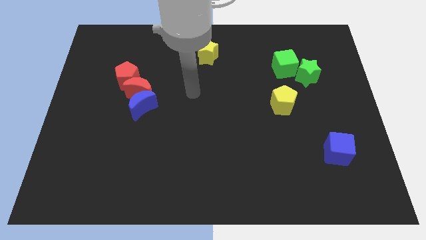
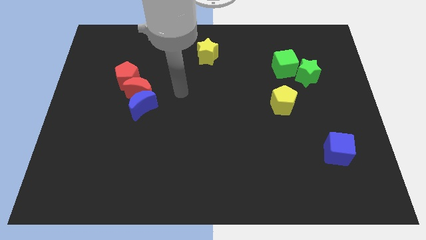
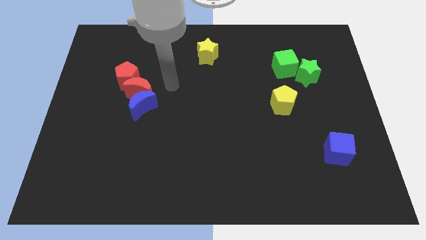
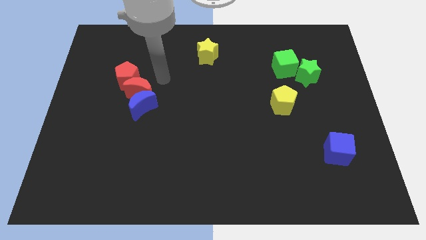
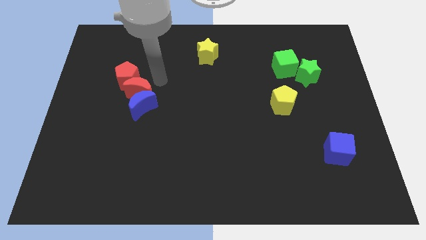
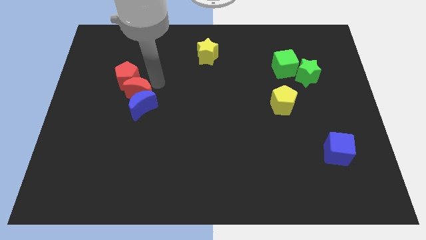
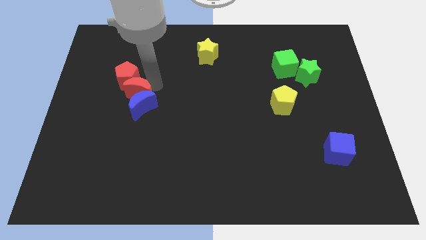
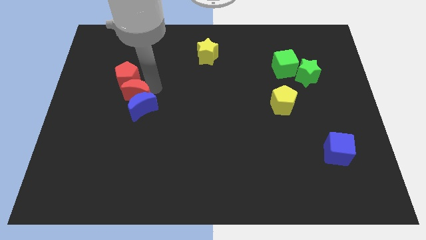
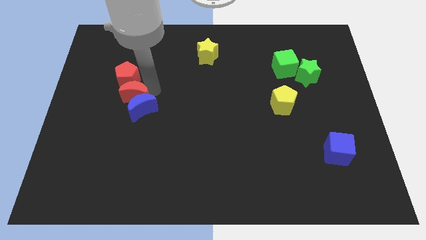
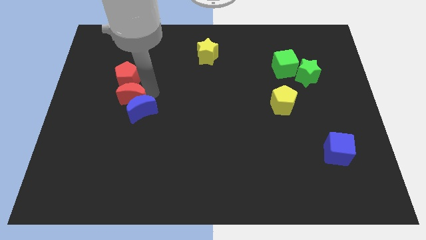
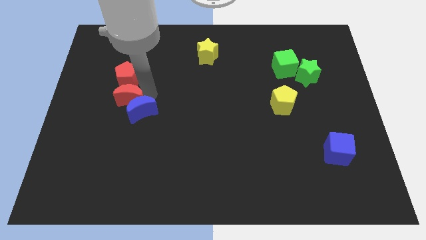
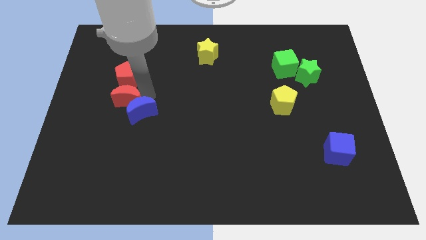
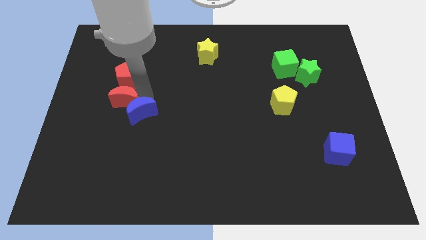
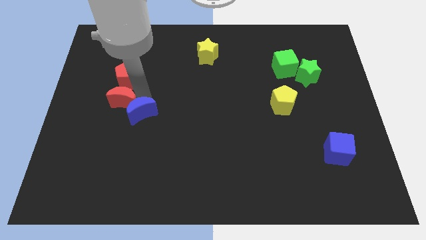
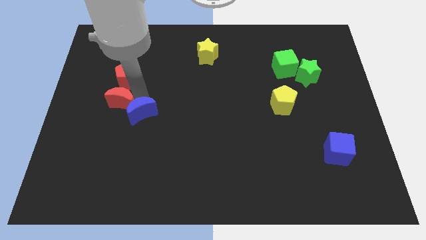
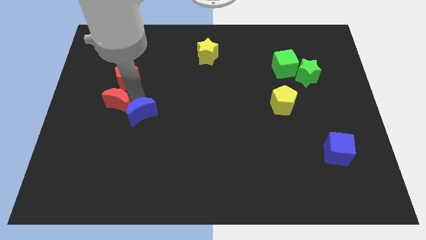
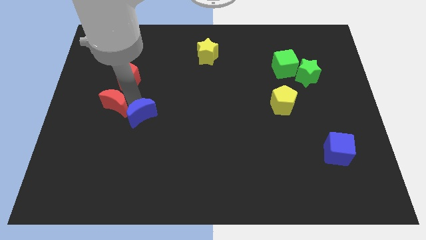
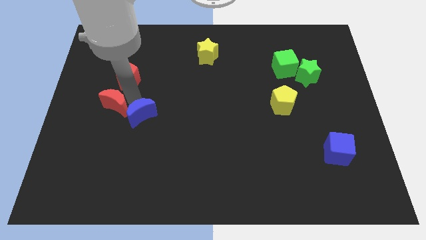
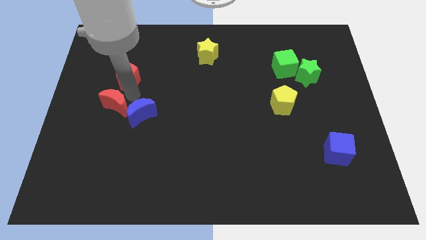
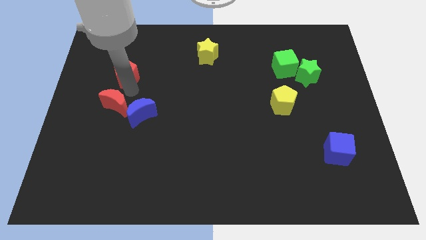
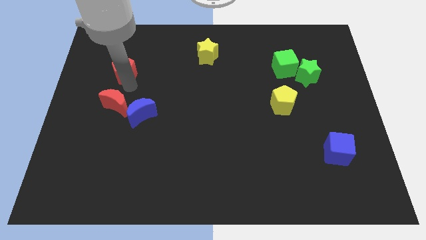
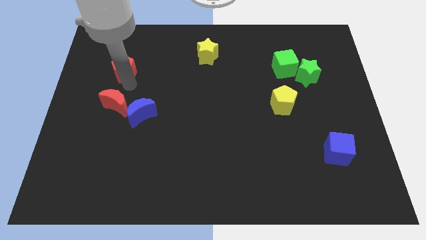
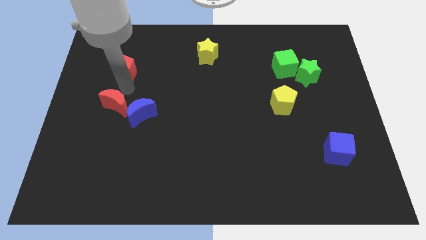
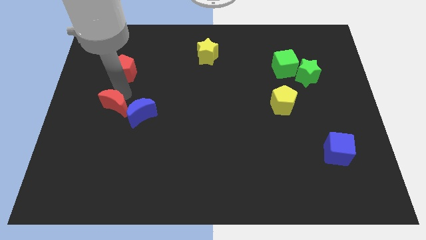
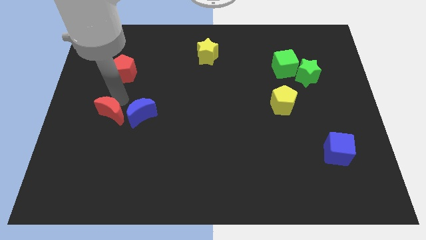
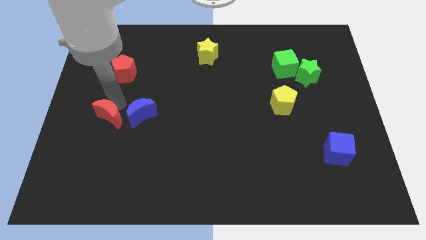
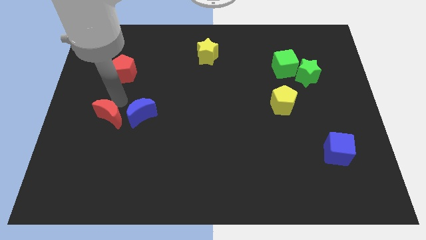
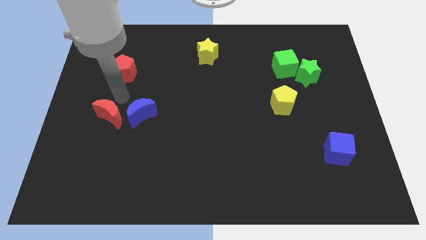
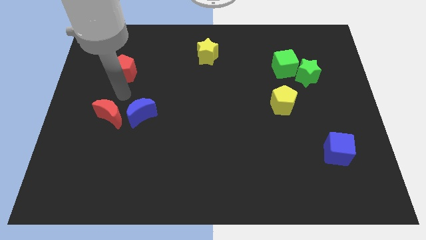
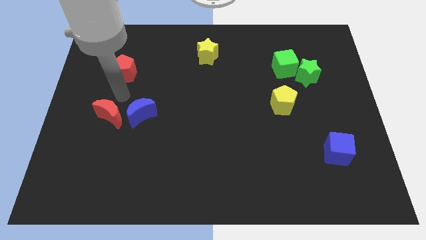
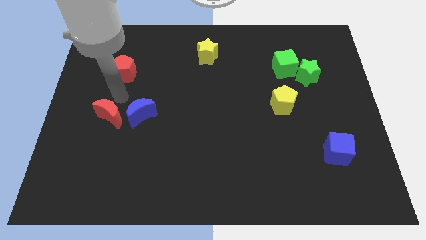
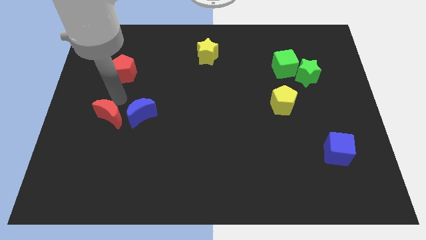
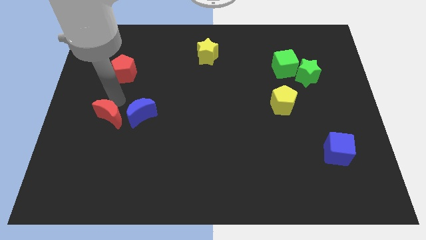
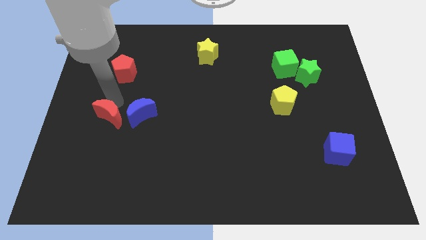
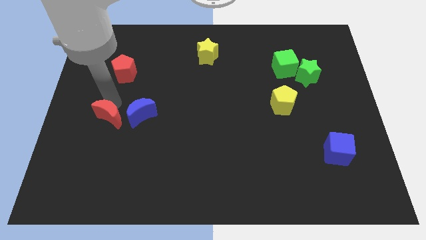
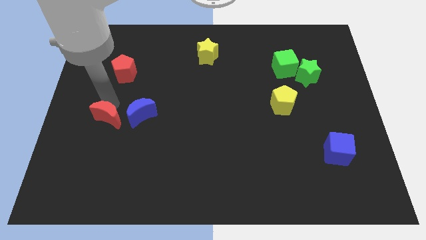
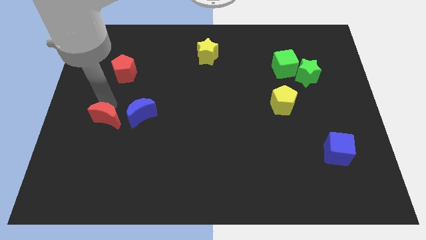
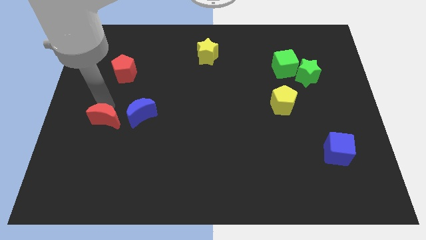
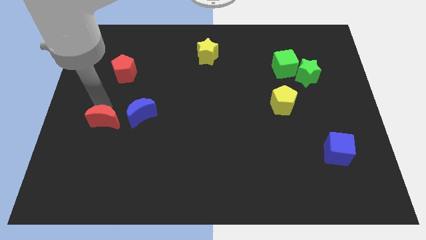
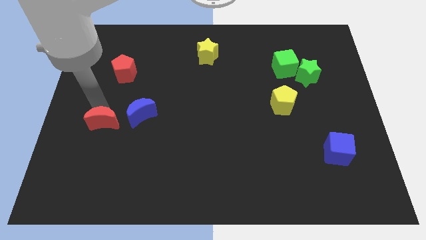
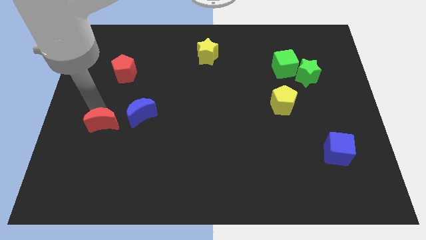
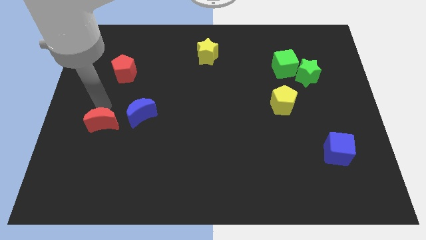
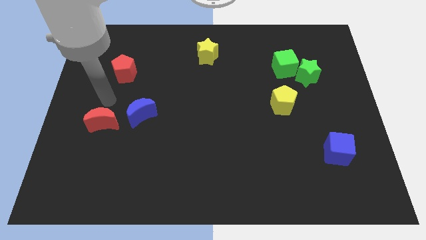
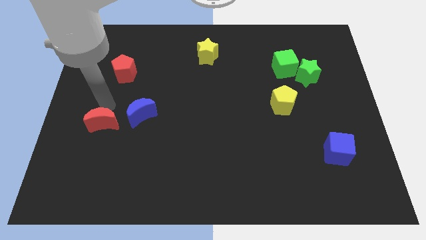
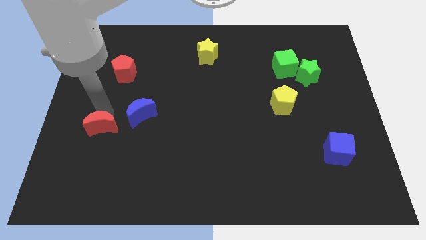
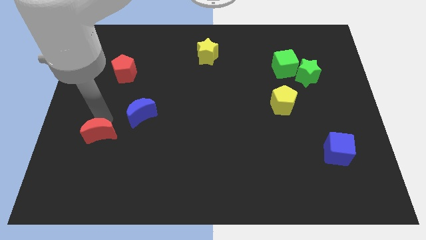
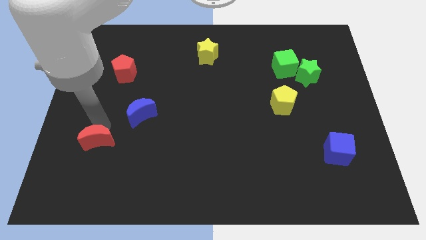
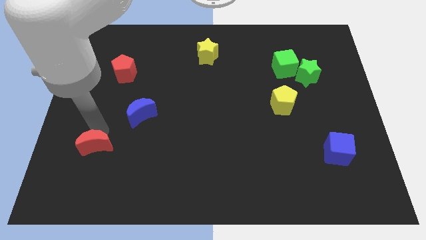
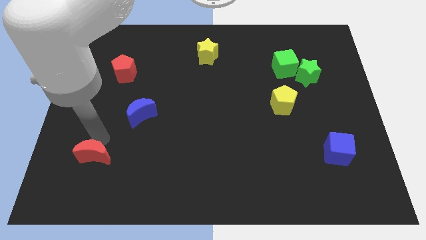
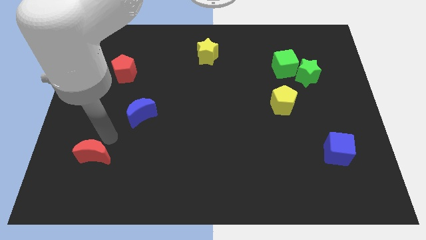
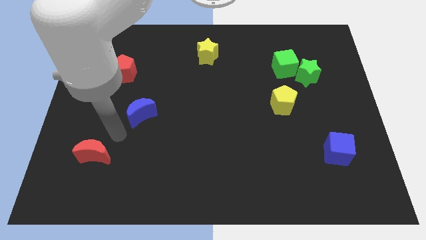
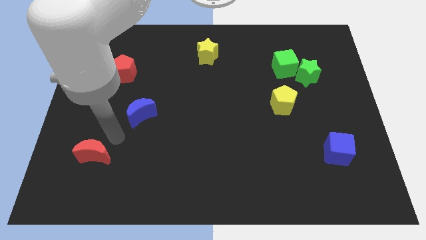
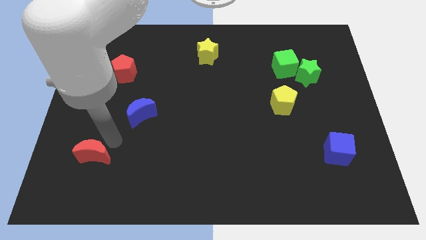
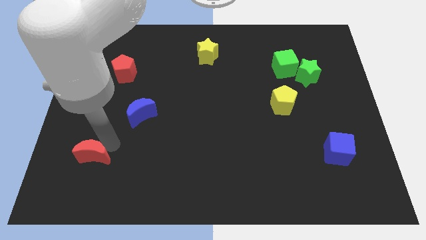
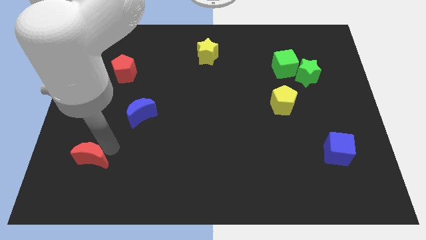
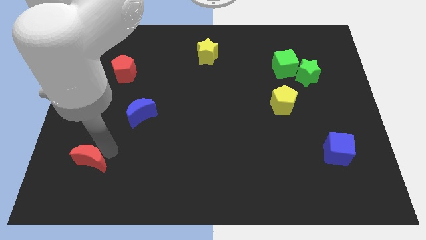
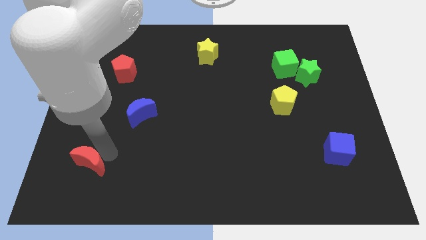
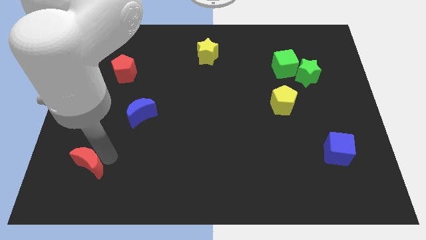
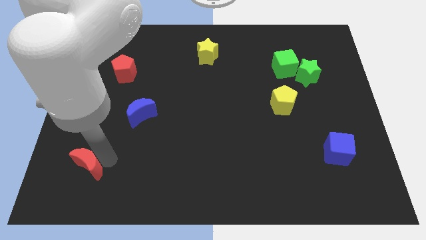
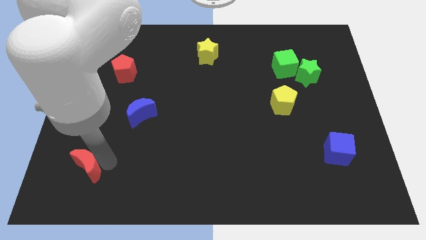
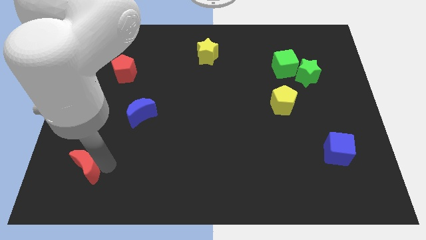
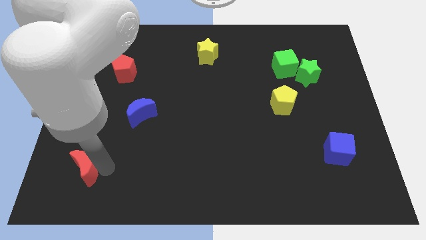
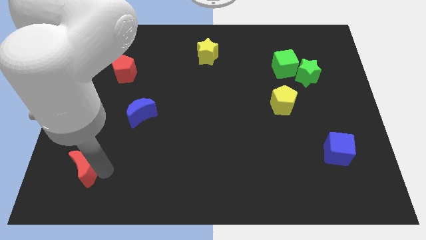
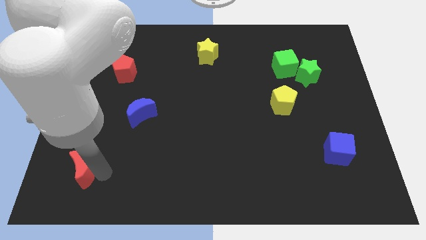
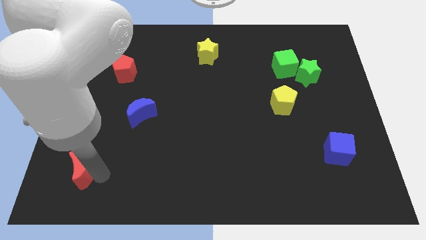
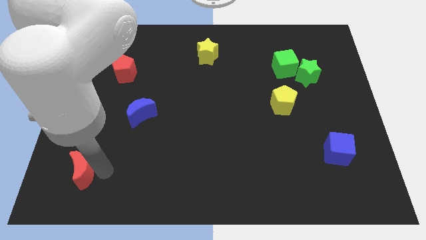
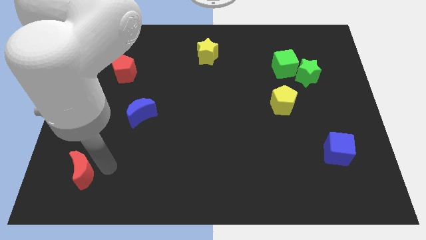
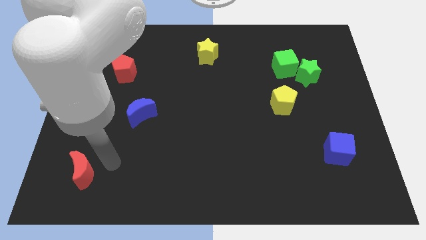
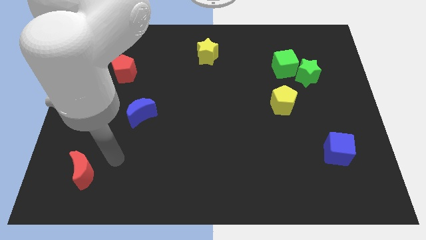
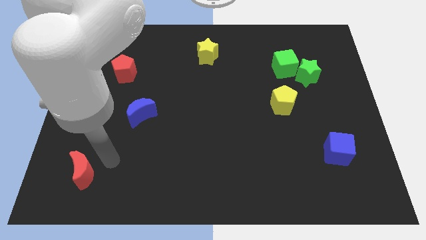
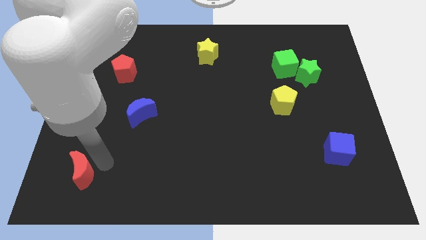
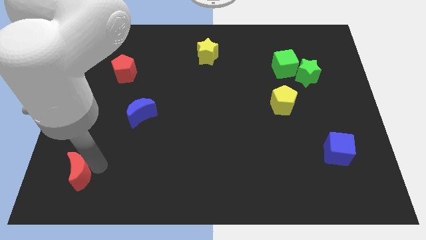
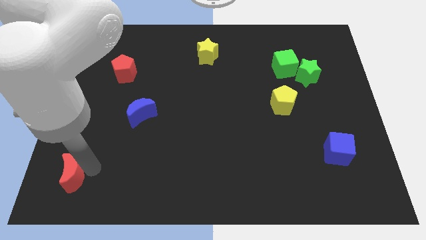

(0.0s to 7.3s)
move the red moon to the lower left corner
